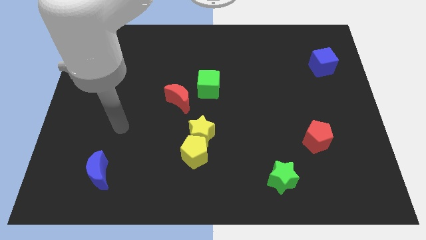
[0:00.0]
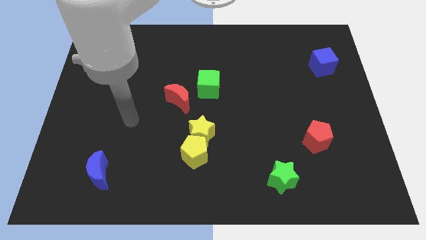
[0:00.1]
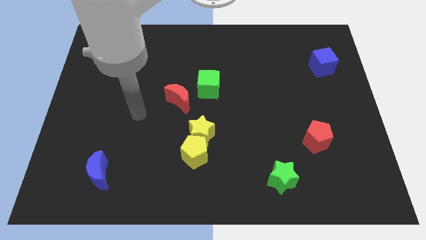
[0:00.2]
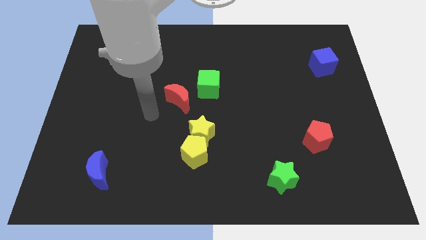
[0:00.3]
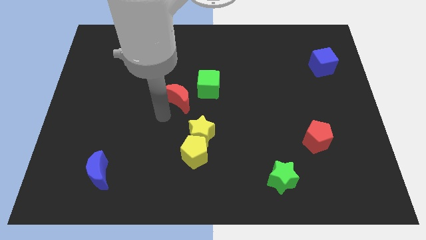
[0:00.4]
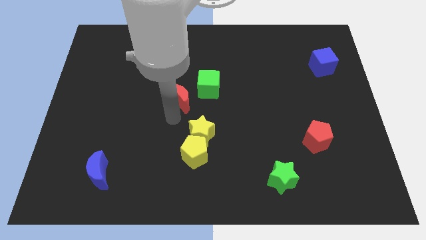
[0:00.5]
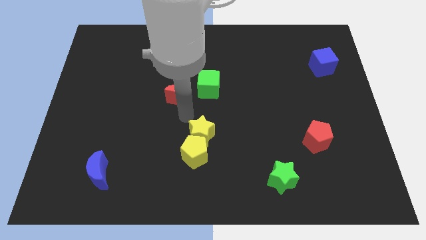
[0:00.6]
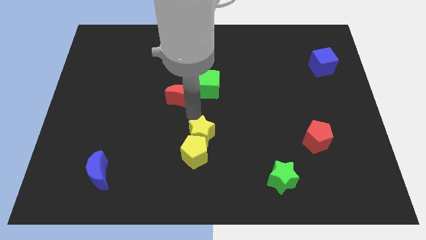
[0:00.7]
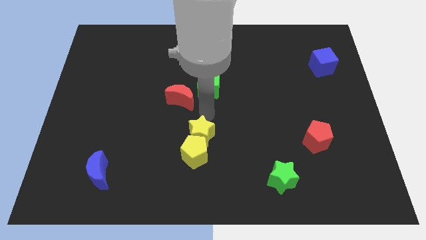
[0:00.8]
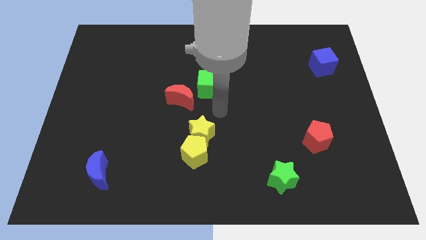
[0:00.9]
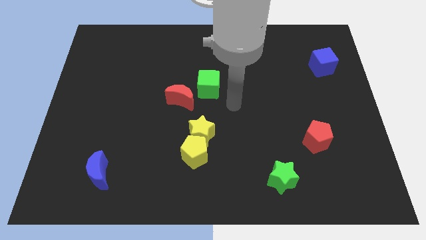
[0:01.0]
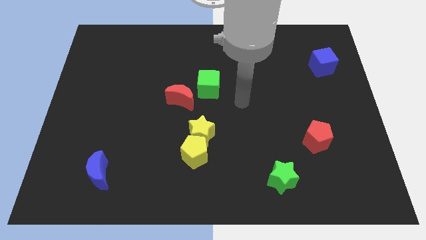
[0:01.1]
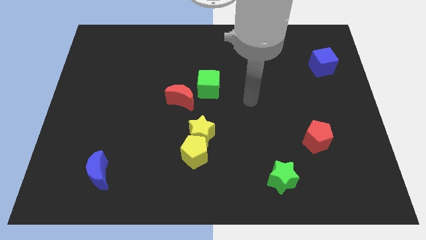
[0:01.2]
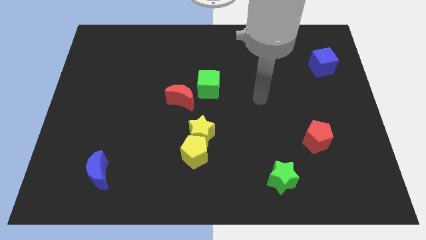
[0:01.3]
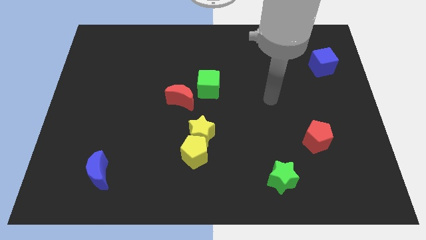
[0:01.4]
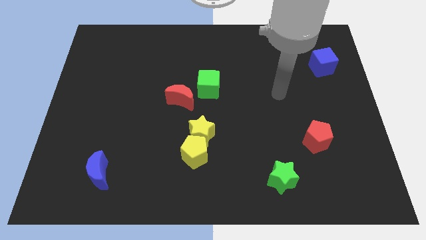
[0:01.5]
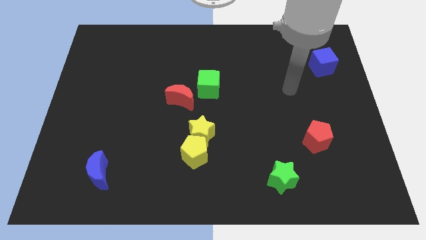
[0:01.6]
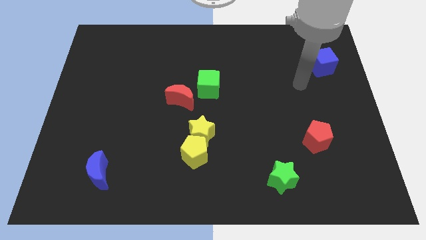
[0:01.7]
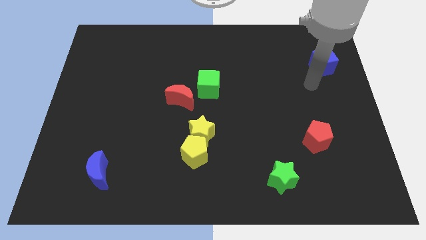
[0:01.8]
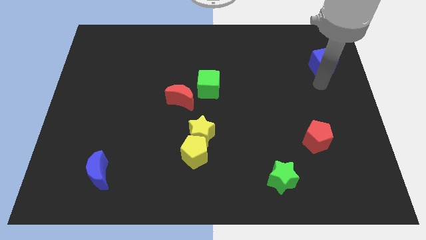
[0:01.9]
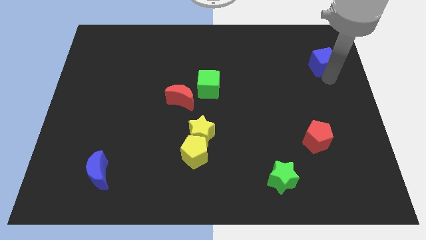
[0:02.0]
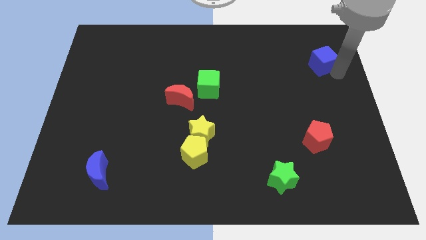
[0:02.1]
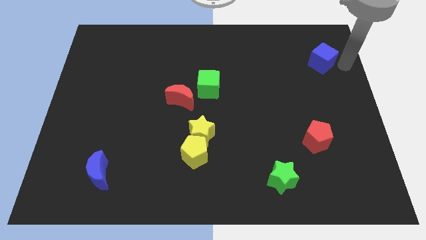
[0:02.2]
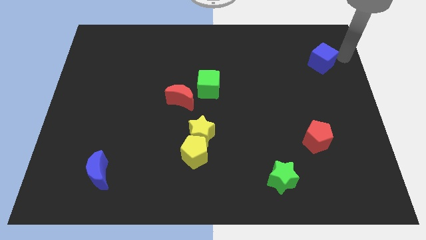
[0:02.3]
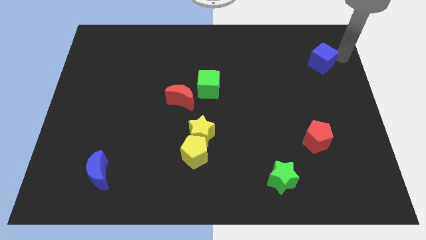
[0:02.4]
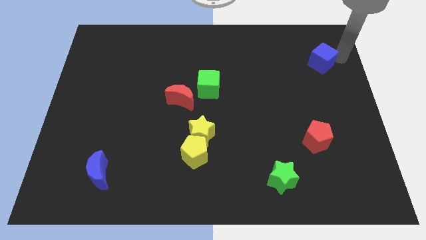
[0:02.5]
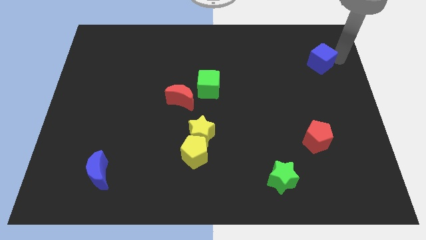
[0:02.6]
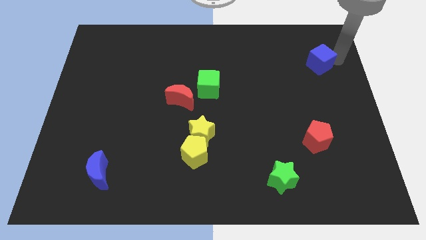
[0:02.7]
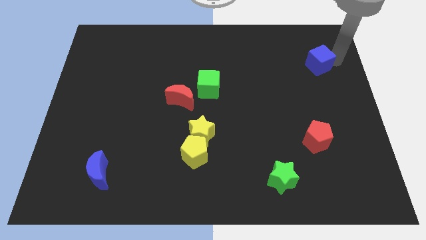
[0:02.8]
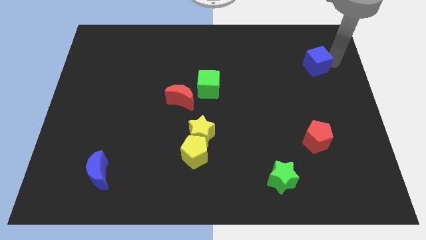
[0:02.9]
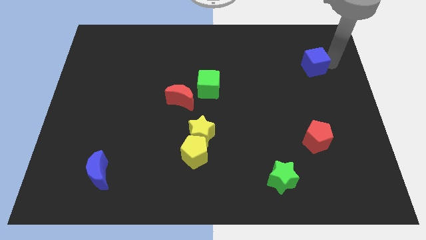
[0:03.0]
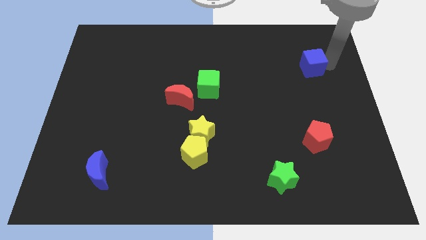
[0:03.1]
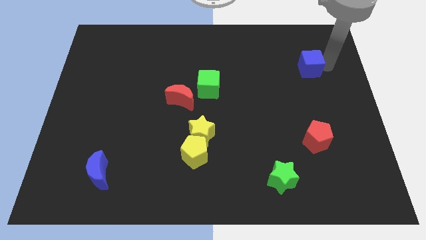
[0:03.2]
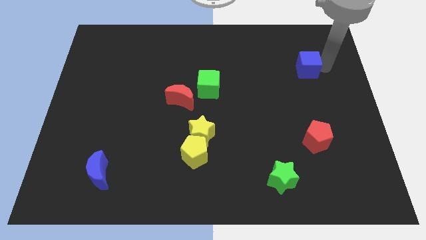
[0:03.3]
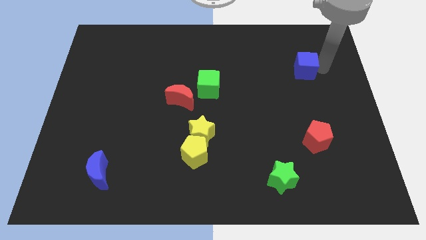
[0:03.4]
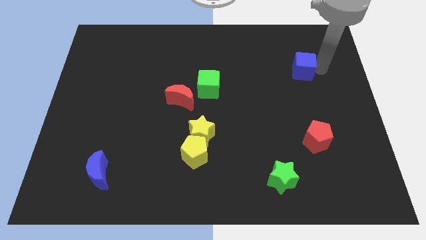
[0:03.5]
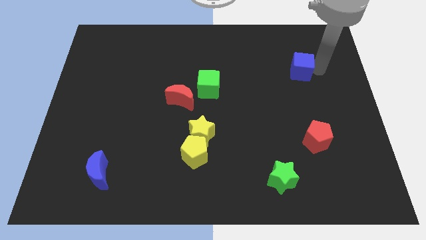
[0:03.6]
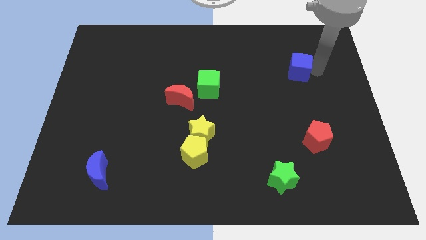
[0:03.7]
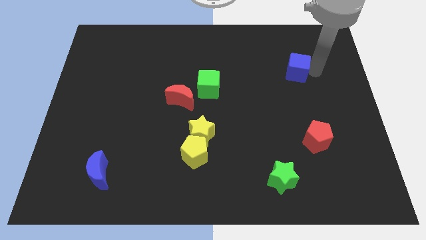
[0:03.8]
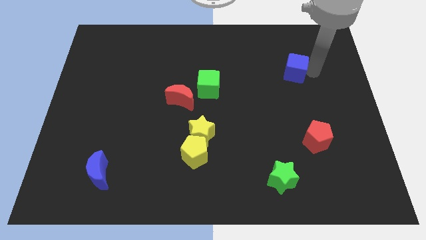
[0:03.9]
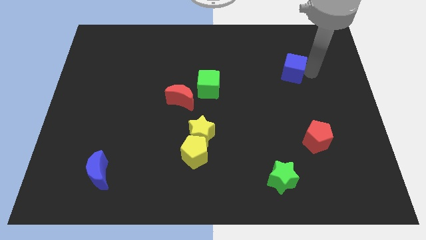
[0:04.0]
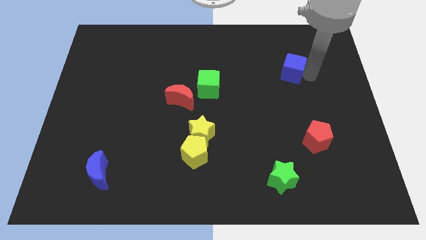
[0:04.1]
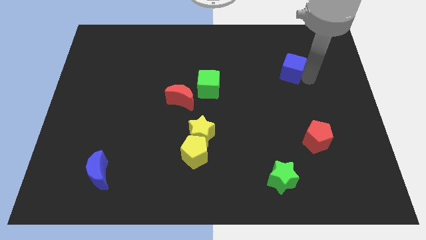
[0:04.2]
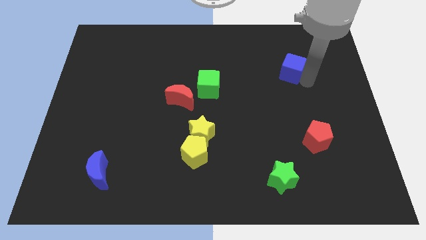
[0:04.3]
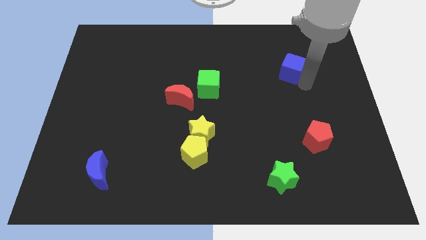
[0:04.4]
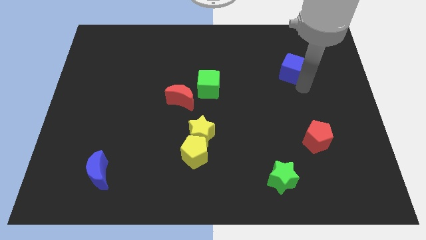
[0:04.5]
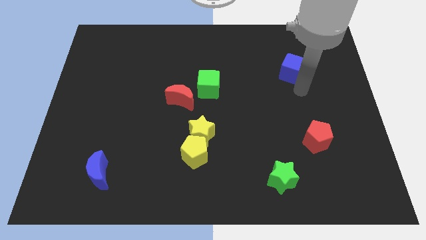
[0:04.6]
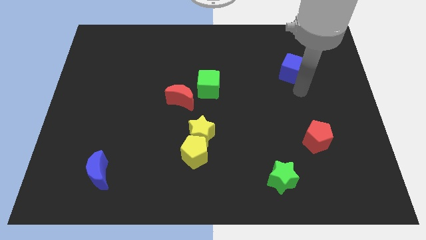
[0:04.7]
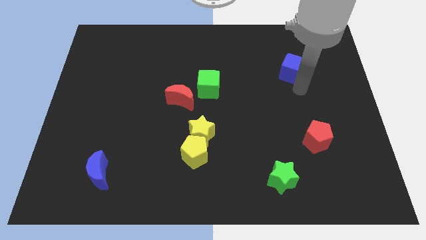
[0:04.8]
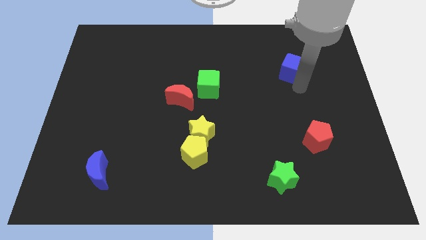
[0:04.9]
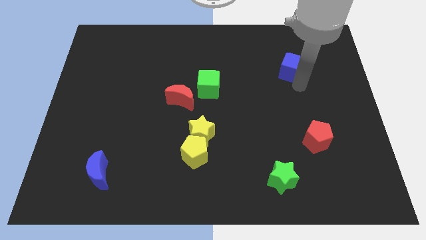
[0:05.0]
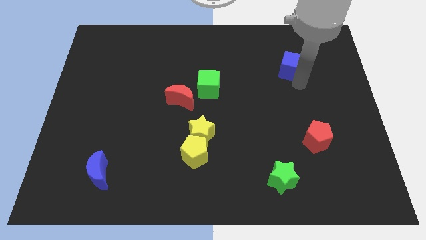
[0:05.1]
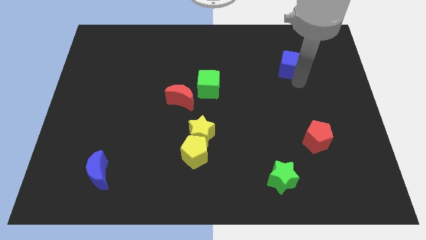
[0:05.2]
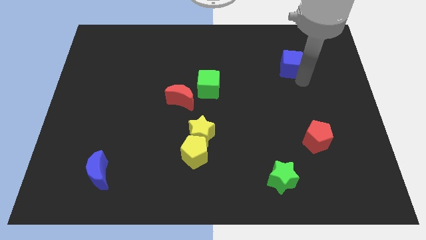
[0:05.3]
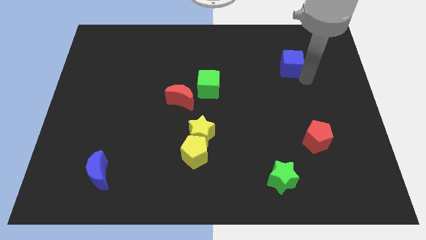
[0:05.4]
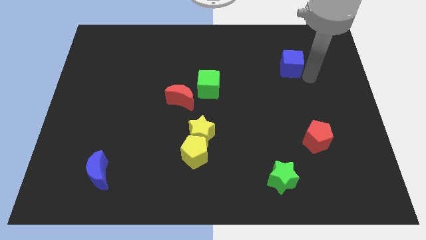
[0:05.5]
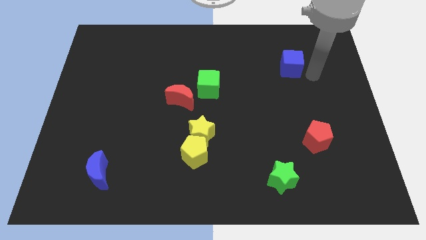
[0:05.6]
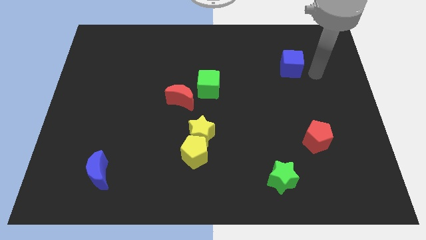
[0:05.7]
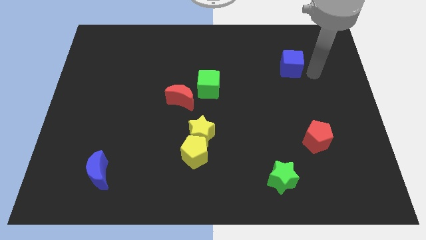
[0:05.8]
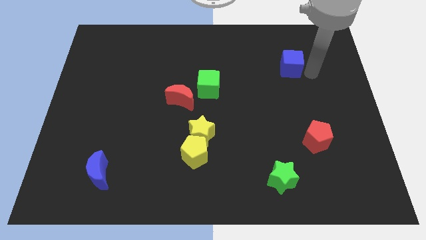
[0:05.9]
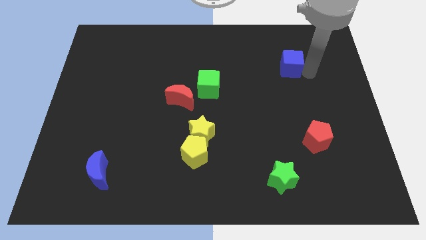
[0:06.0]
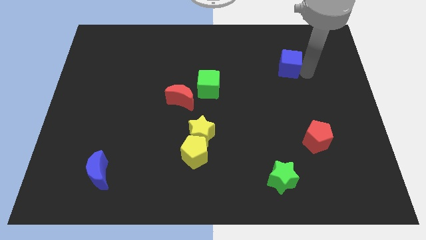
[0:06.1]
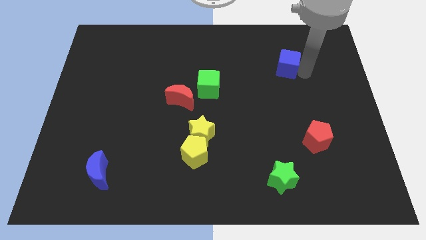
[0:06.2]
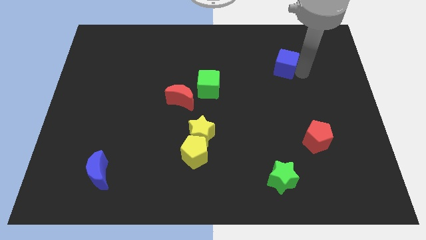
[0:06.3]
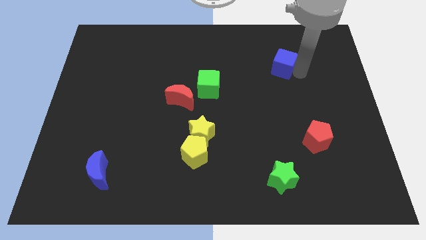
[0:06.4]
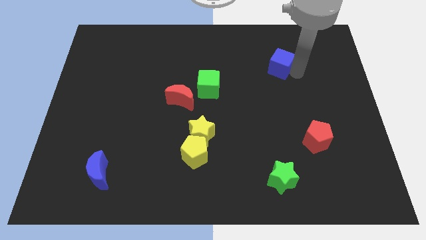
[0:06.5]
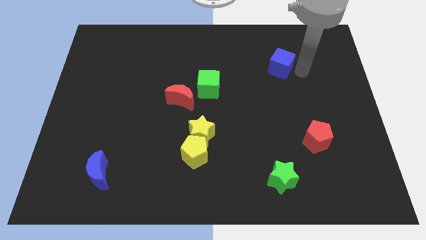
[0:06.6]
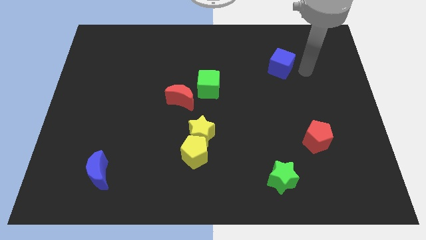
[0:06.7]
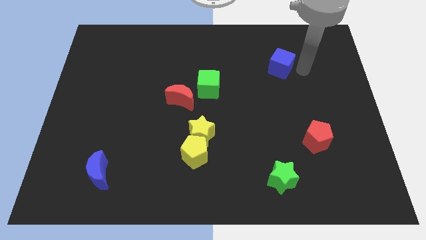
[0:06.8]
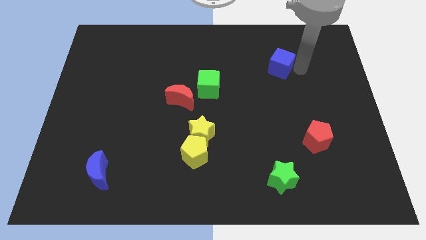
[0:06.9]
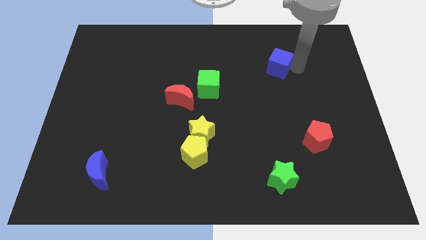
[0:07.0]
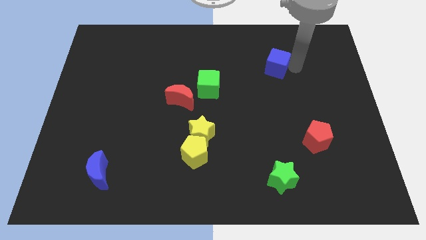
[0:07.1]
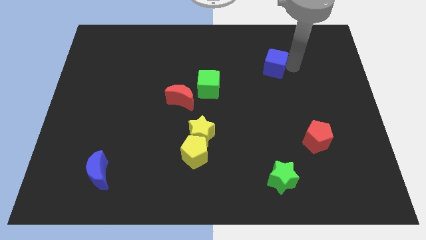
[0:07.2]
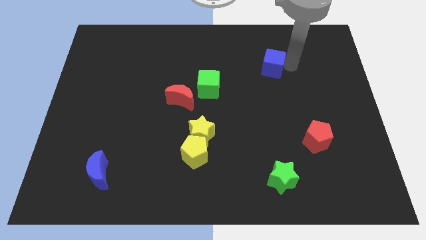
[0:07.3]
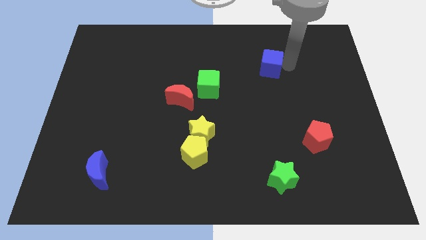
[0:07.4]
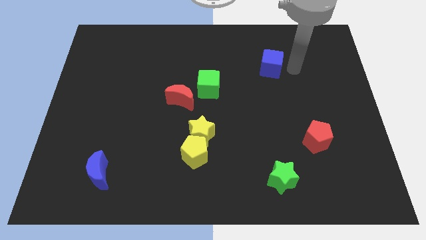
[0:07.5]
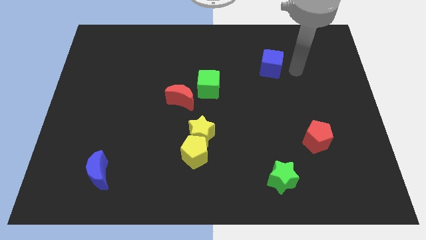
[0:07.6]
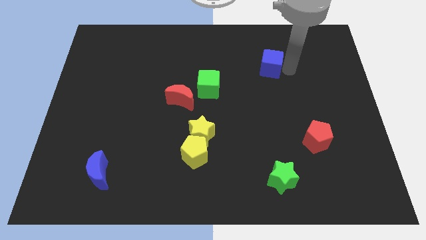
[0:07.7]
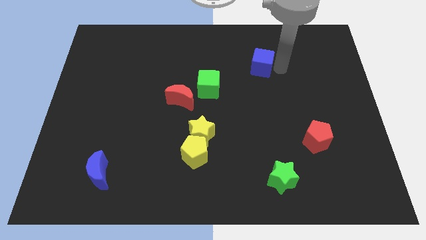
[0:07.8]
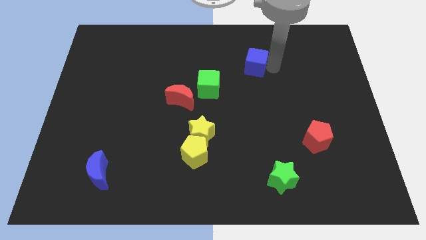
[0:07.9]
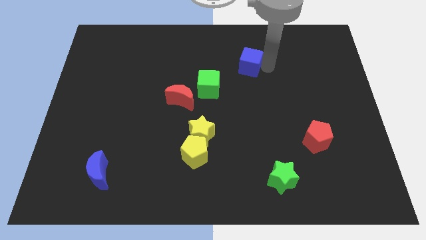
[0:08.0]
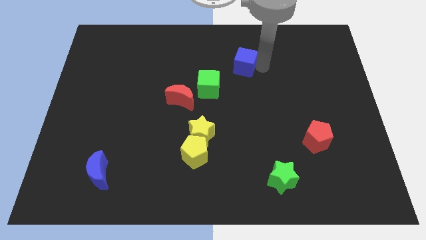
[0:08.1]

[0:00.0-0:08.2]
slide the blue cube left
